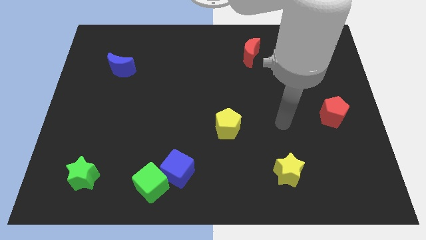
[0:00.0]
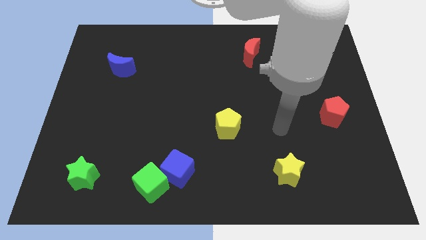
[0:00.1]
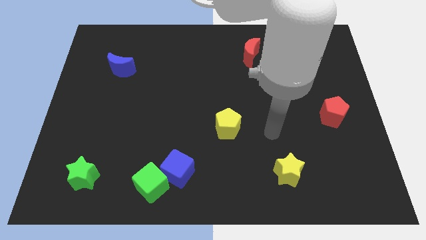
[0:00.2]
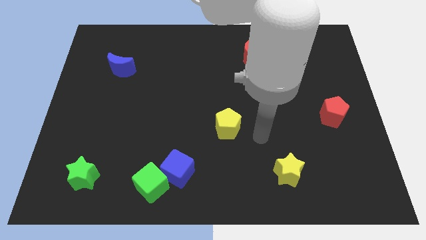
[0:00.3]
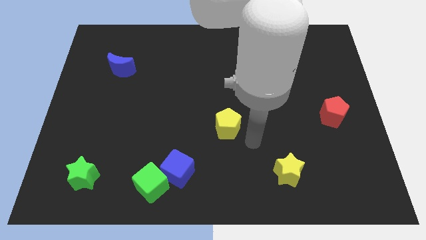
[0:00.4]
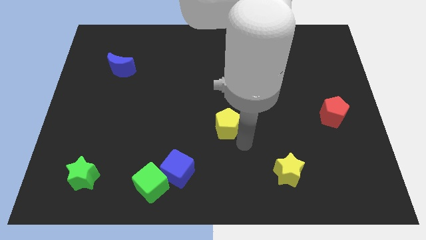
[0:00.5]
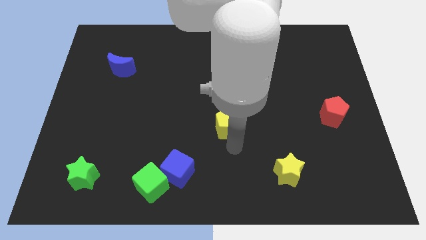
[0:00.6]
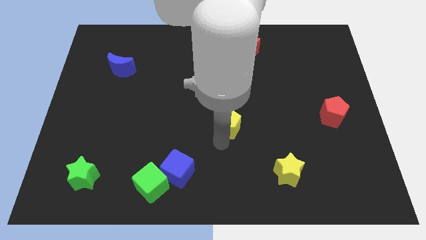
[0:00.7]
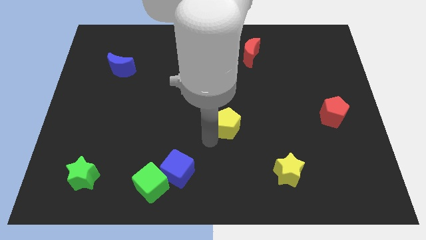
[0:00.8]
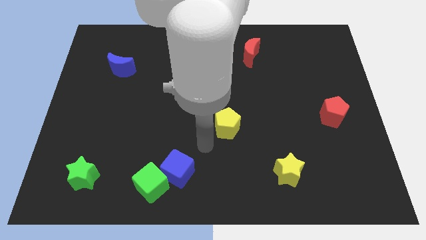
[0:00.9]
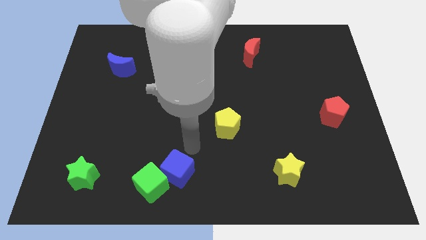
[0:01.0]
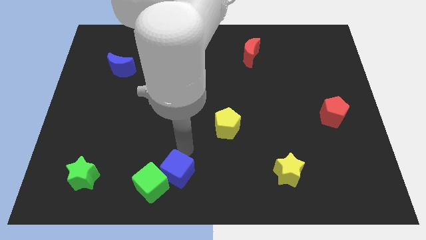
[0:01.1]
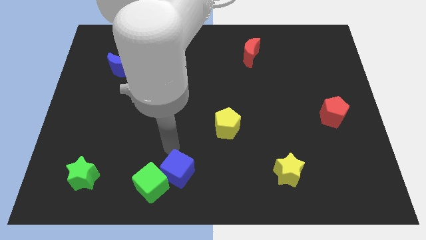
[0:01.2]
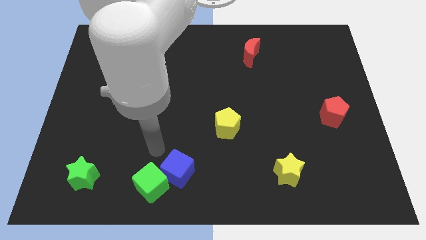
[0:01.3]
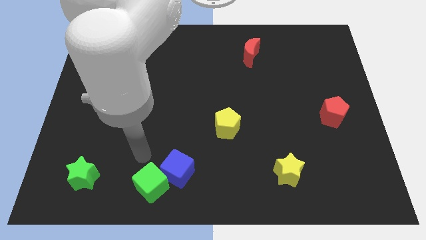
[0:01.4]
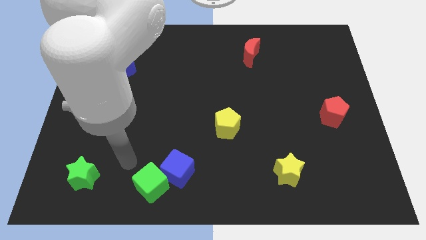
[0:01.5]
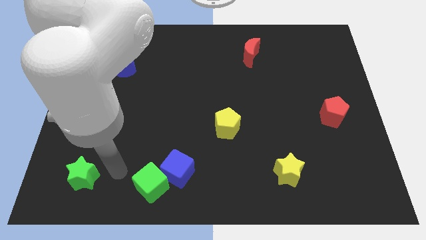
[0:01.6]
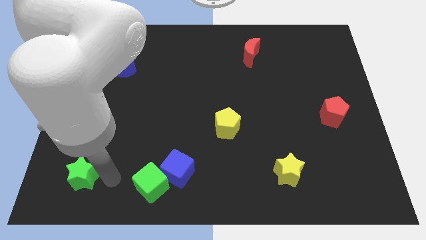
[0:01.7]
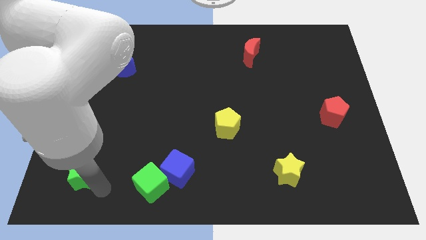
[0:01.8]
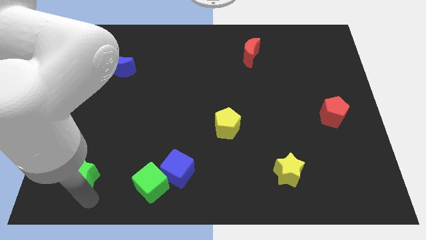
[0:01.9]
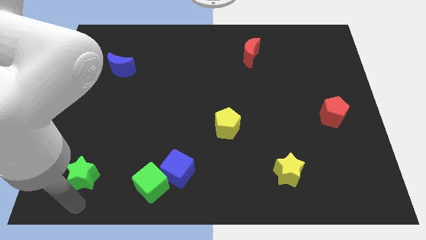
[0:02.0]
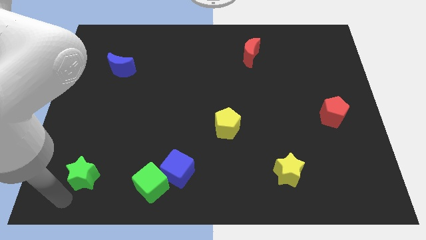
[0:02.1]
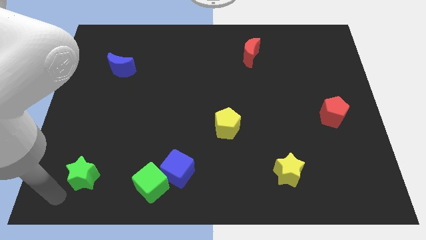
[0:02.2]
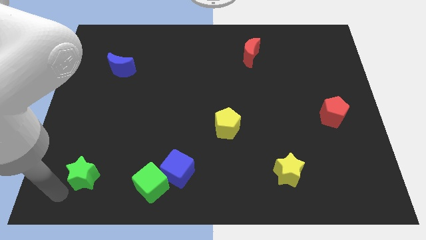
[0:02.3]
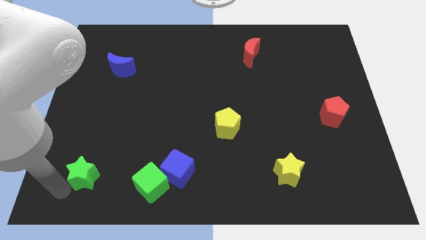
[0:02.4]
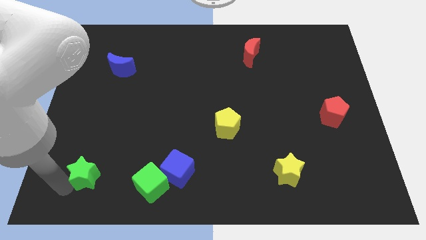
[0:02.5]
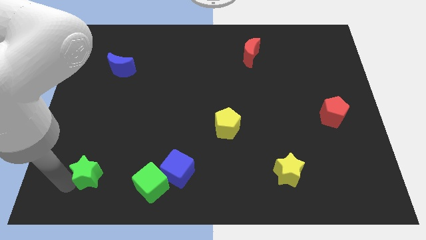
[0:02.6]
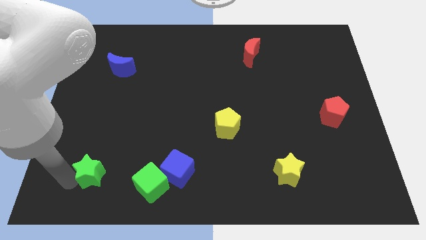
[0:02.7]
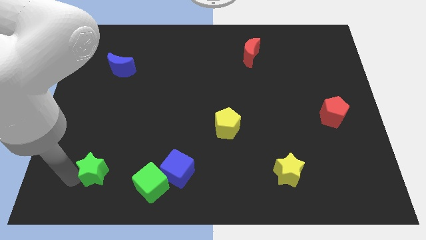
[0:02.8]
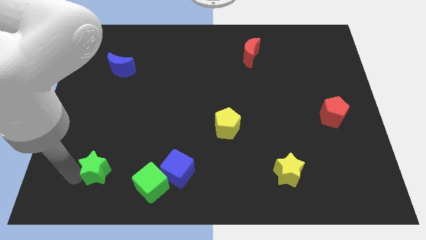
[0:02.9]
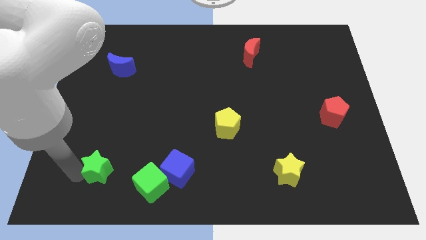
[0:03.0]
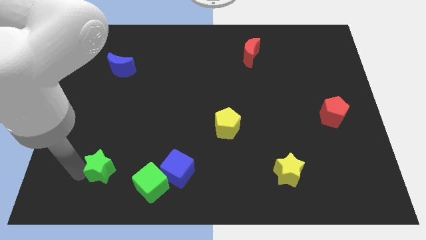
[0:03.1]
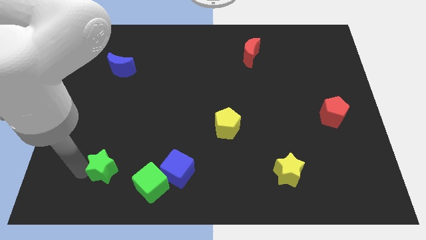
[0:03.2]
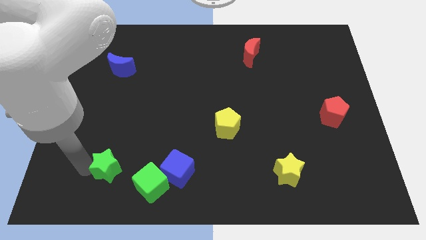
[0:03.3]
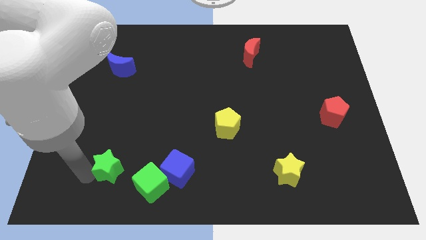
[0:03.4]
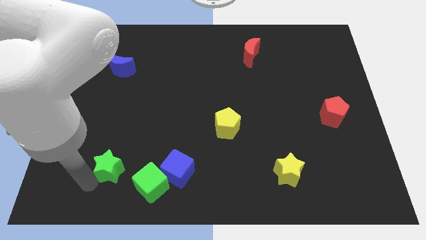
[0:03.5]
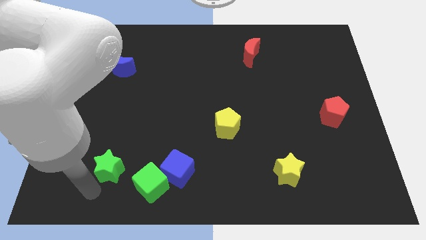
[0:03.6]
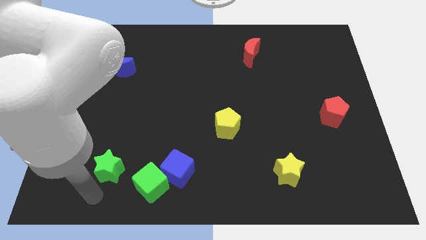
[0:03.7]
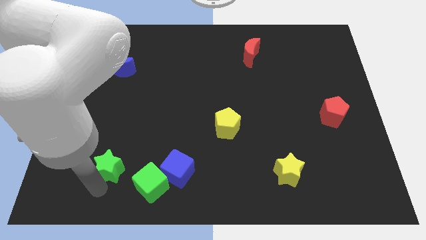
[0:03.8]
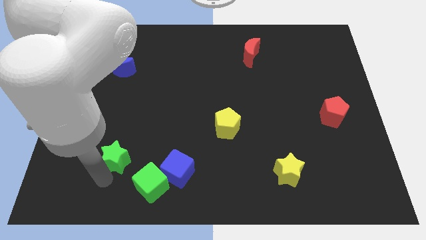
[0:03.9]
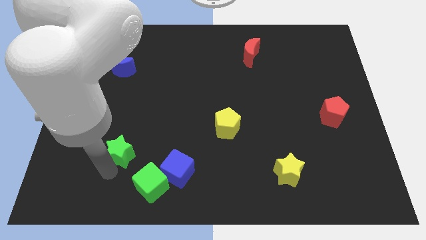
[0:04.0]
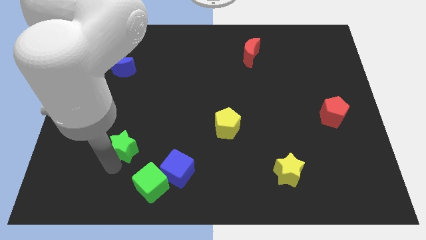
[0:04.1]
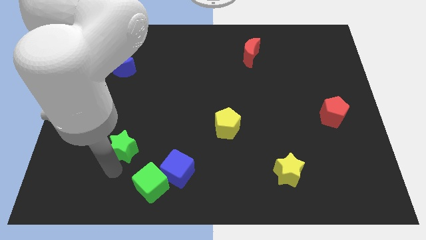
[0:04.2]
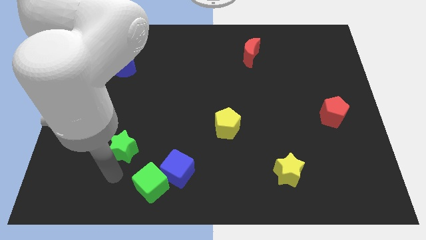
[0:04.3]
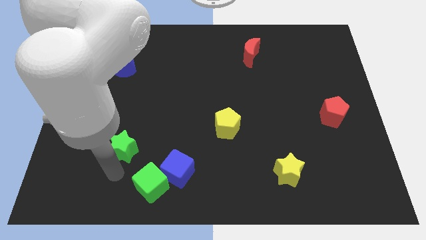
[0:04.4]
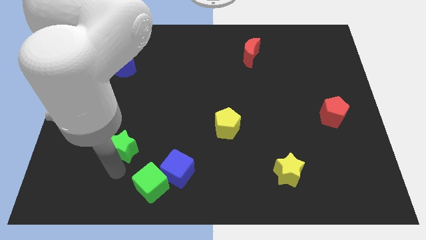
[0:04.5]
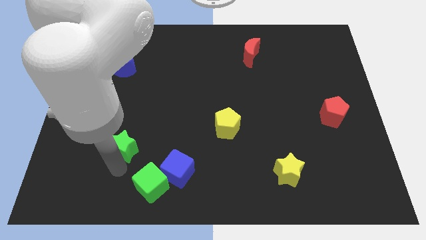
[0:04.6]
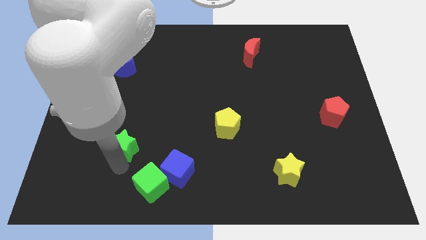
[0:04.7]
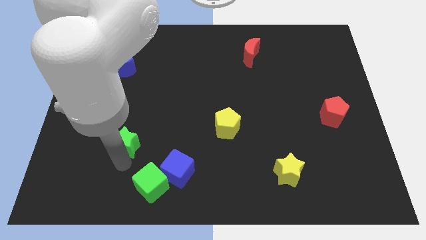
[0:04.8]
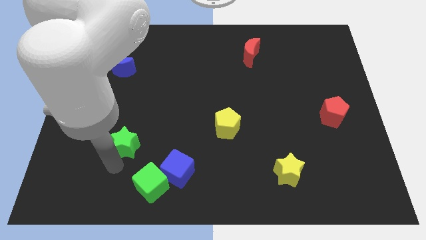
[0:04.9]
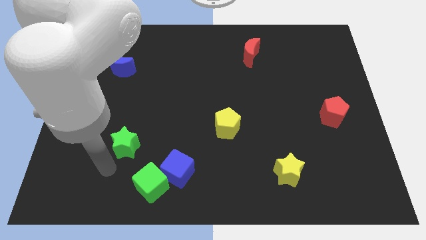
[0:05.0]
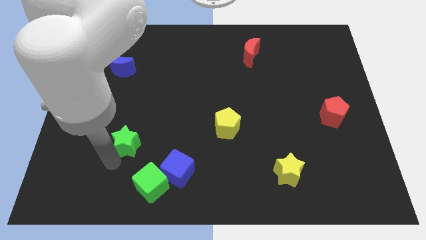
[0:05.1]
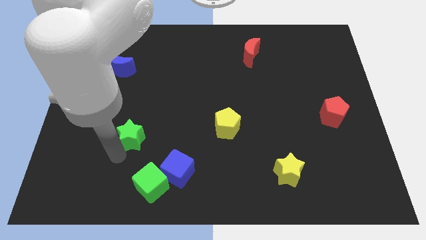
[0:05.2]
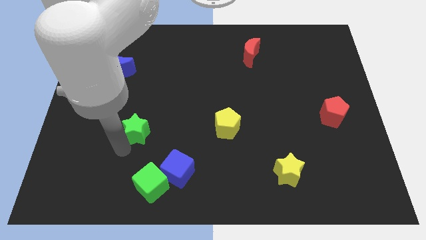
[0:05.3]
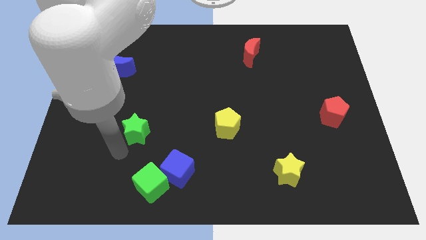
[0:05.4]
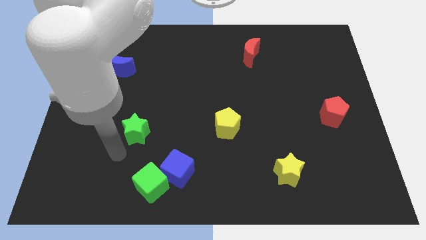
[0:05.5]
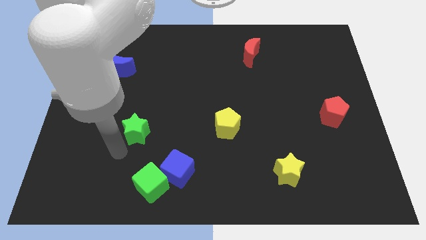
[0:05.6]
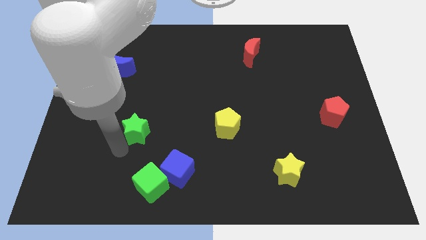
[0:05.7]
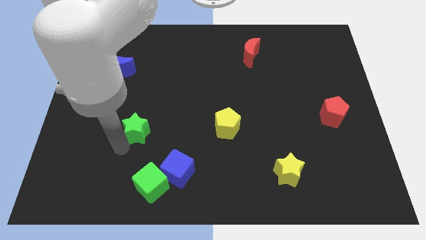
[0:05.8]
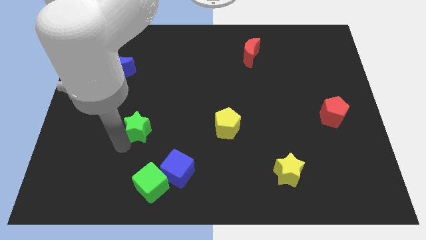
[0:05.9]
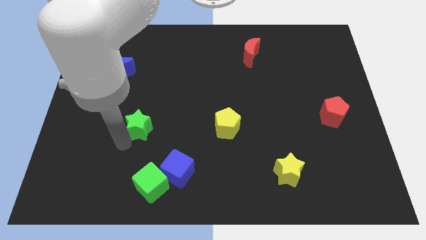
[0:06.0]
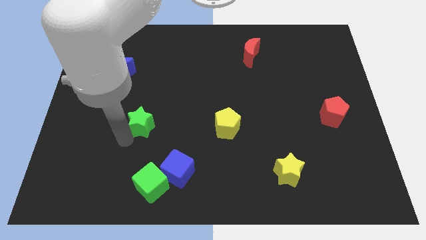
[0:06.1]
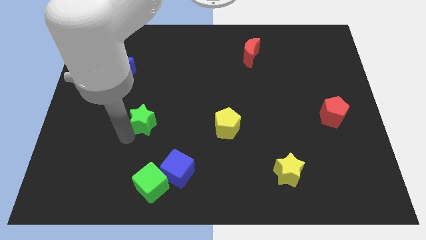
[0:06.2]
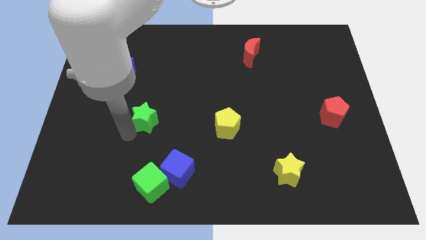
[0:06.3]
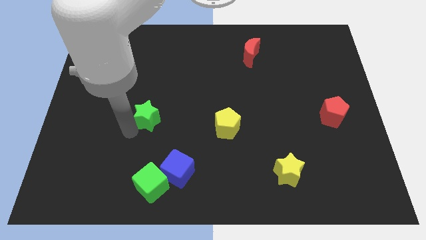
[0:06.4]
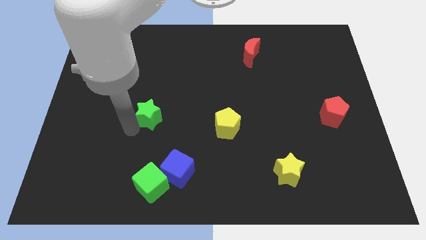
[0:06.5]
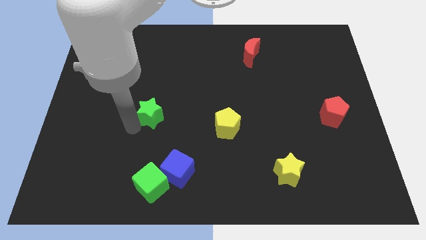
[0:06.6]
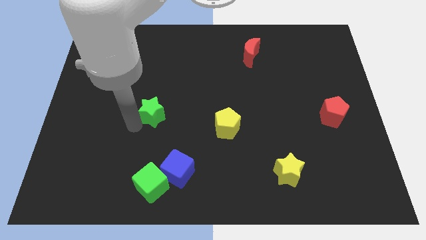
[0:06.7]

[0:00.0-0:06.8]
push the green star up and right diagonally

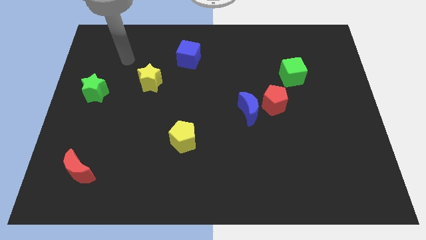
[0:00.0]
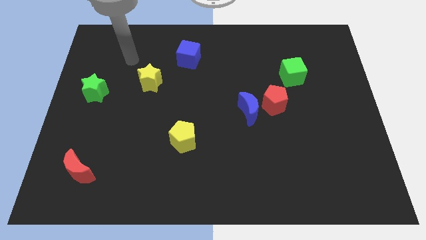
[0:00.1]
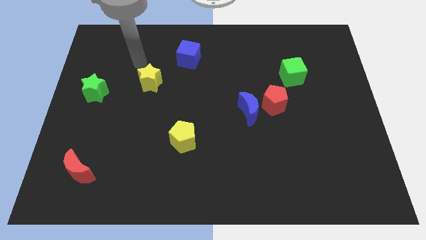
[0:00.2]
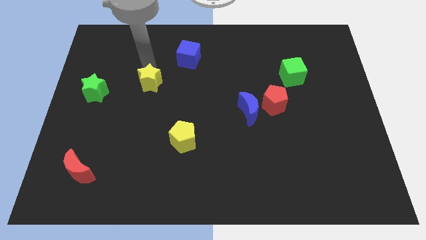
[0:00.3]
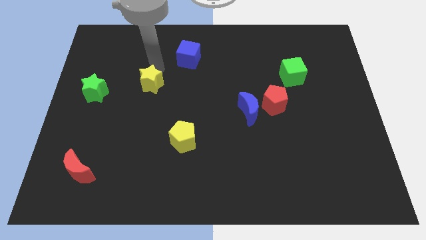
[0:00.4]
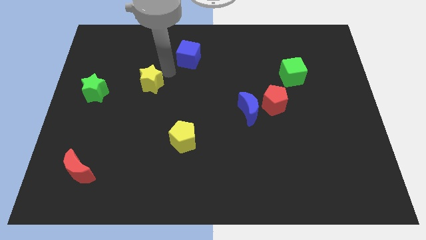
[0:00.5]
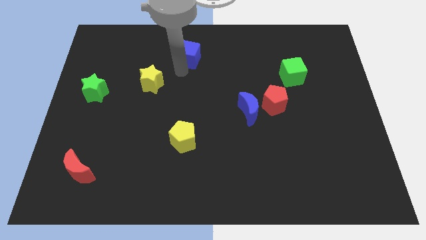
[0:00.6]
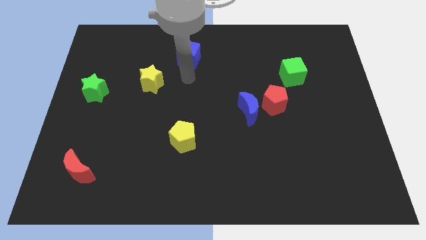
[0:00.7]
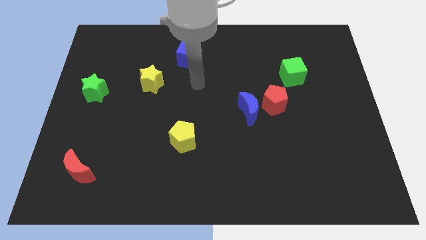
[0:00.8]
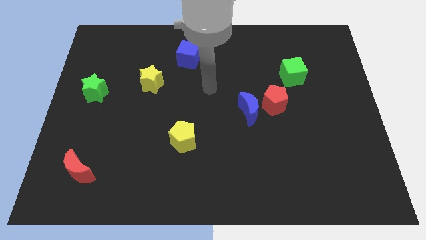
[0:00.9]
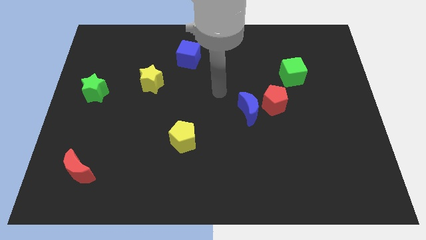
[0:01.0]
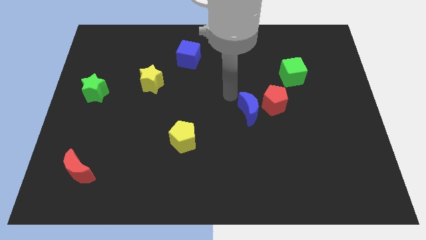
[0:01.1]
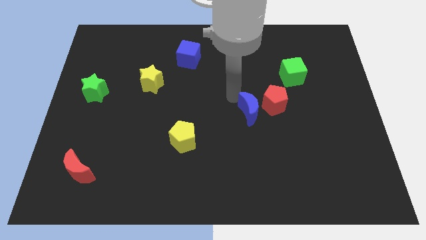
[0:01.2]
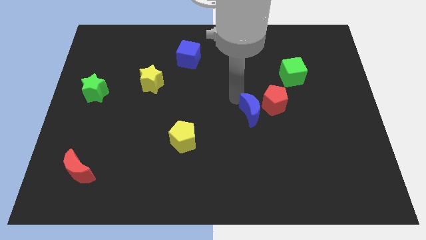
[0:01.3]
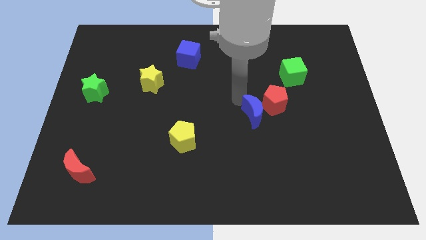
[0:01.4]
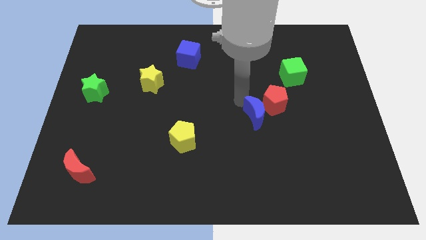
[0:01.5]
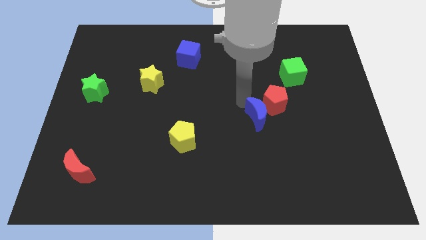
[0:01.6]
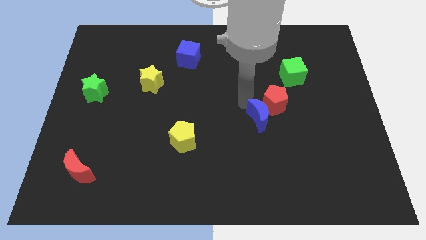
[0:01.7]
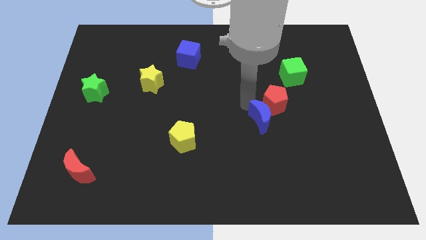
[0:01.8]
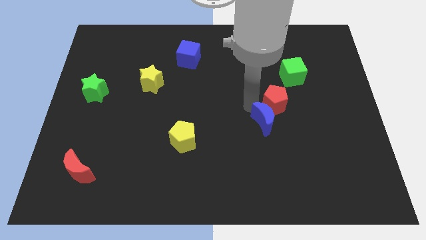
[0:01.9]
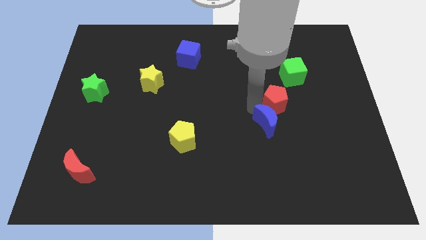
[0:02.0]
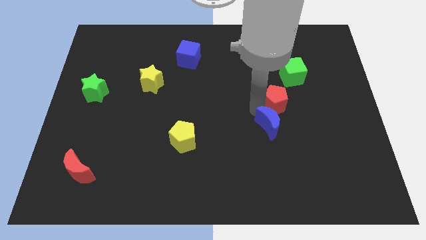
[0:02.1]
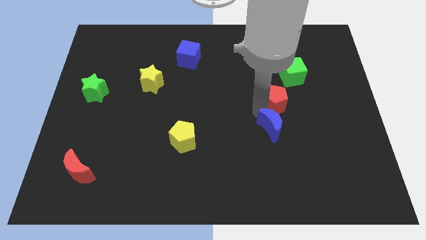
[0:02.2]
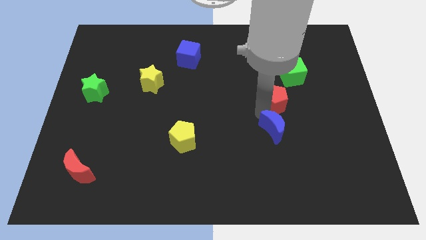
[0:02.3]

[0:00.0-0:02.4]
slightly slide the blue moon down and right
